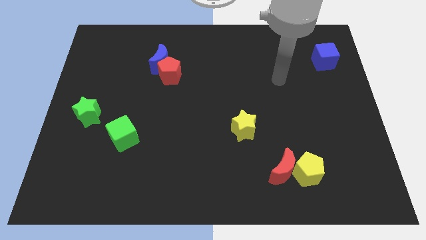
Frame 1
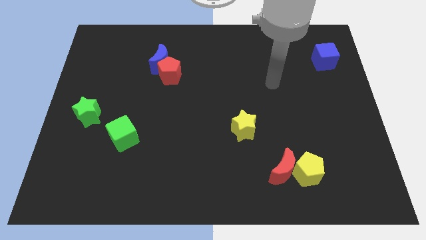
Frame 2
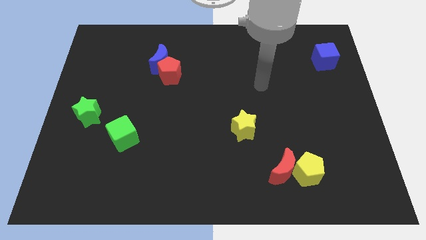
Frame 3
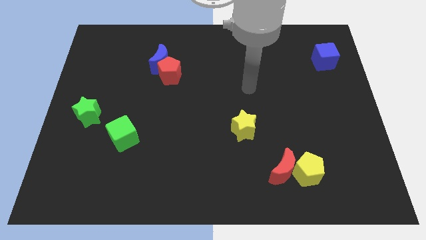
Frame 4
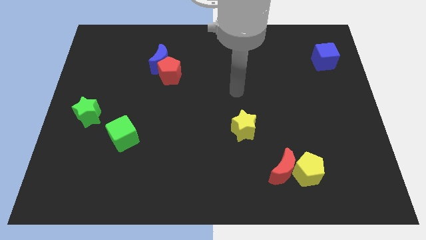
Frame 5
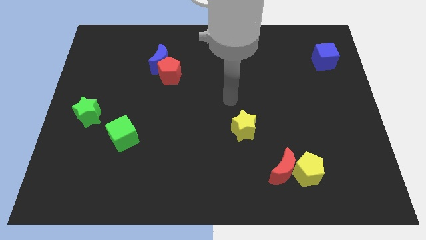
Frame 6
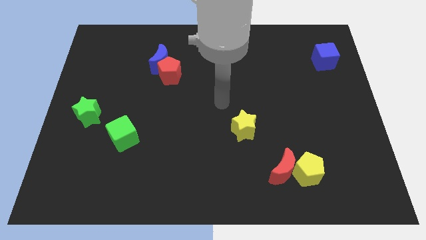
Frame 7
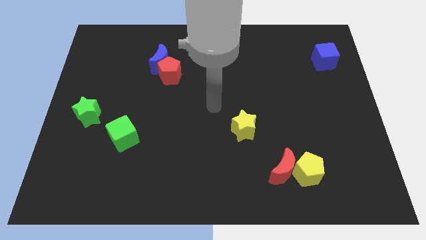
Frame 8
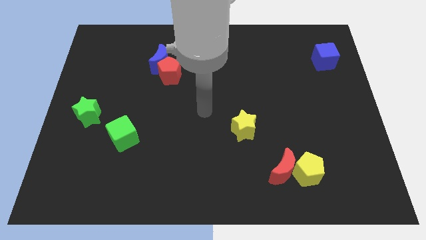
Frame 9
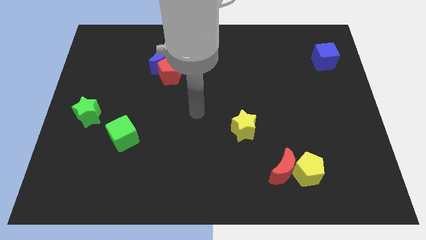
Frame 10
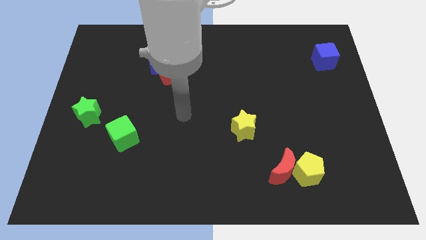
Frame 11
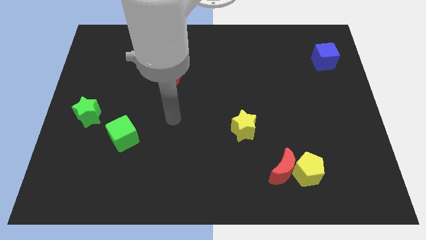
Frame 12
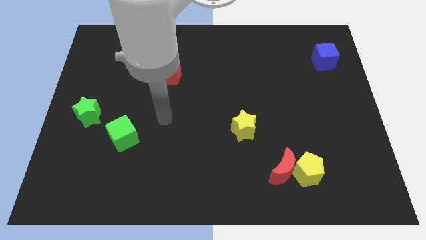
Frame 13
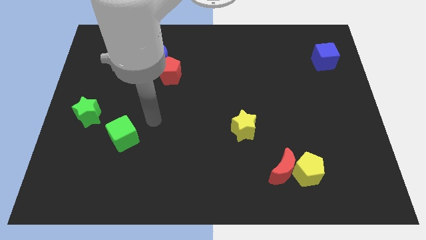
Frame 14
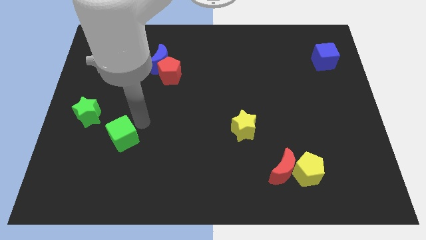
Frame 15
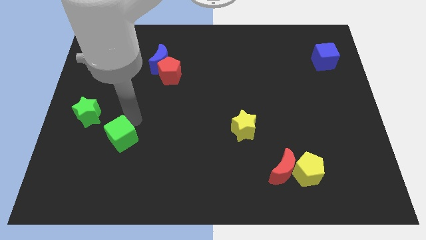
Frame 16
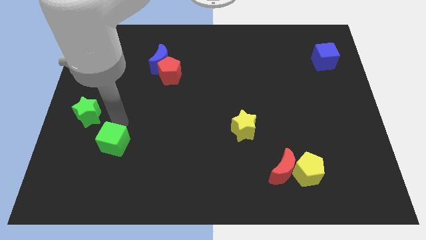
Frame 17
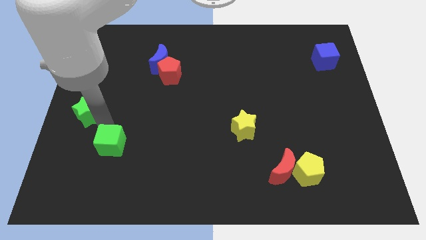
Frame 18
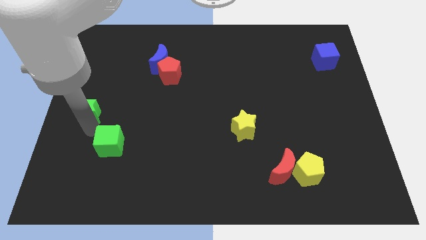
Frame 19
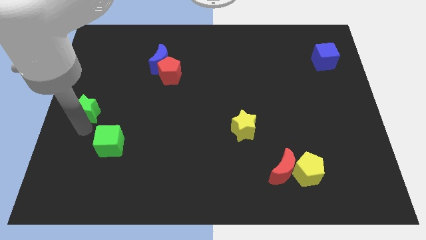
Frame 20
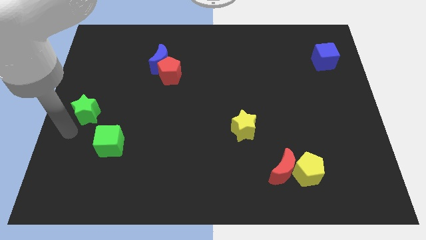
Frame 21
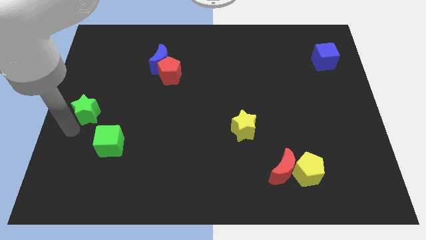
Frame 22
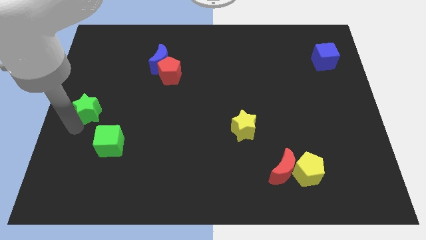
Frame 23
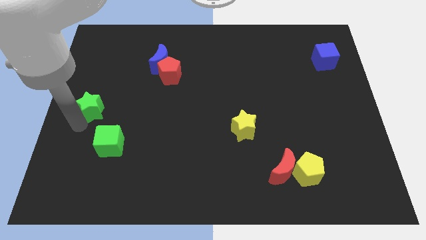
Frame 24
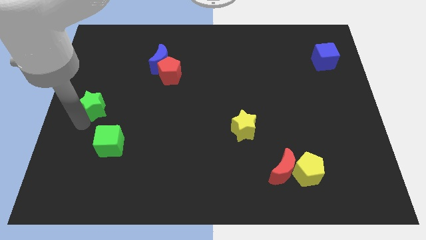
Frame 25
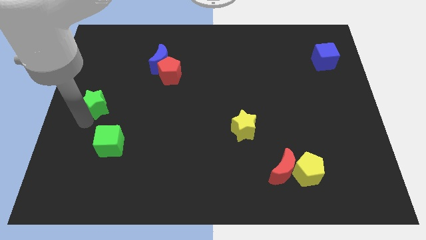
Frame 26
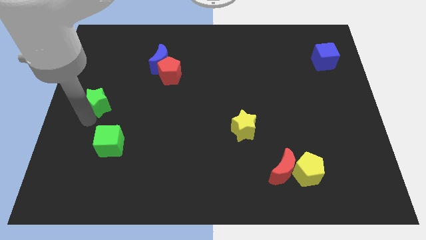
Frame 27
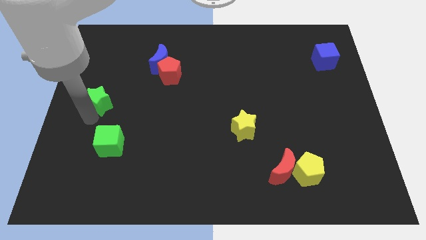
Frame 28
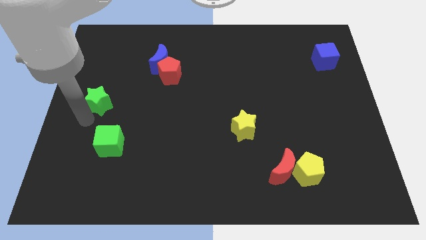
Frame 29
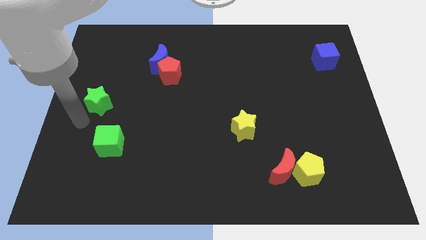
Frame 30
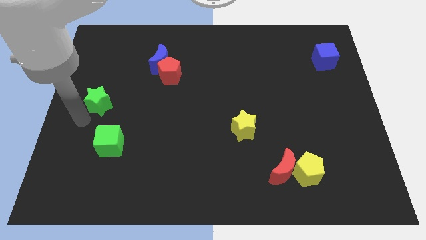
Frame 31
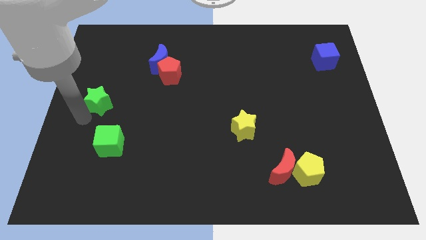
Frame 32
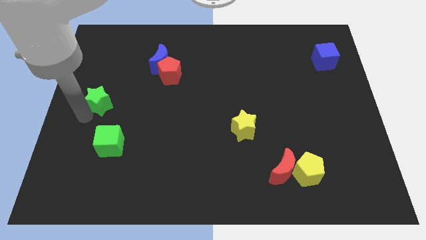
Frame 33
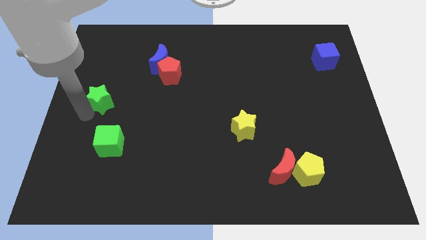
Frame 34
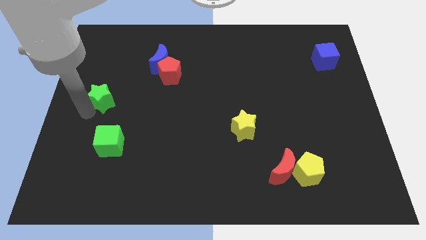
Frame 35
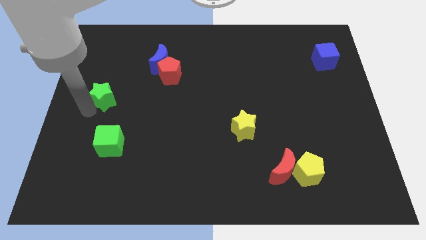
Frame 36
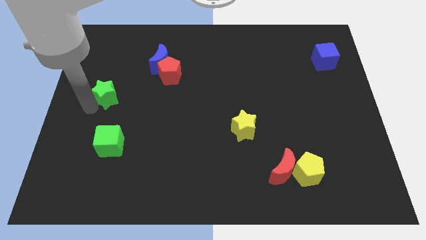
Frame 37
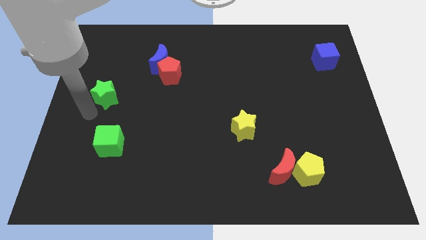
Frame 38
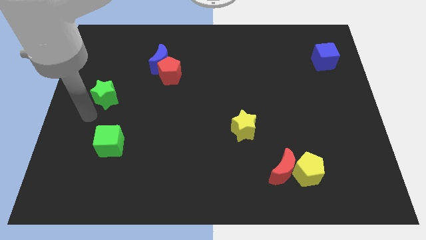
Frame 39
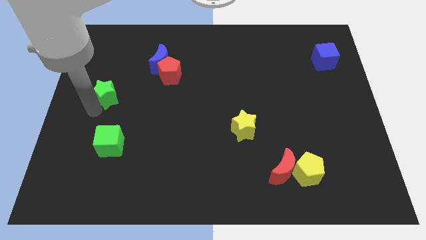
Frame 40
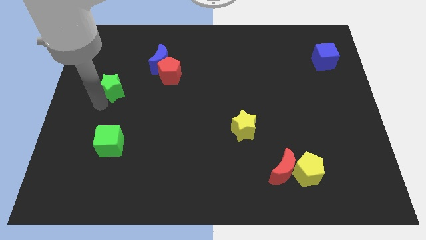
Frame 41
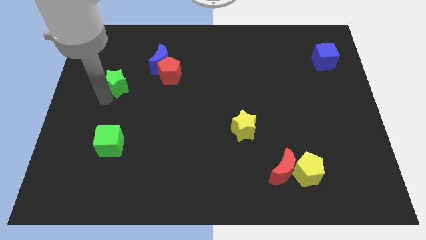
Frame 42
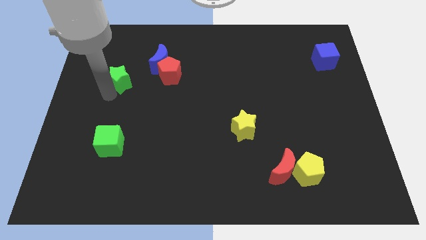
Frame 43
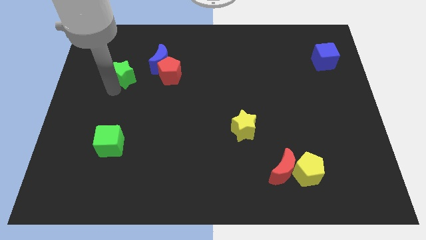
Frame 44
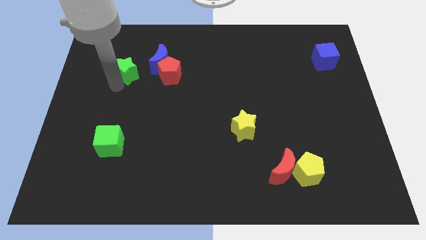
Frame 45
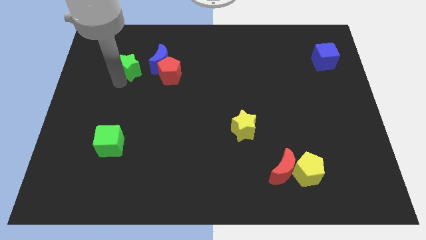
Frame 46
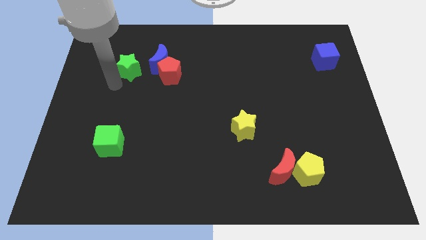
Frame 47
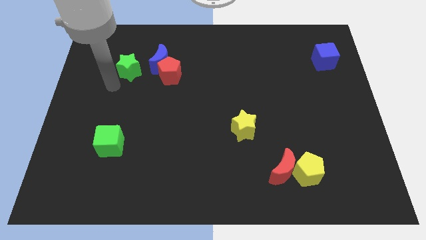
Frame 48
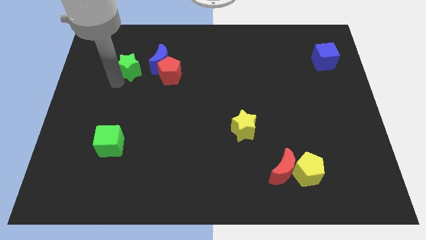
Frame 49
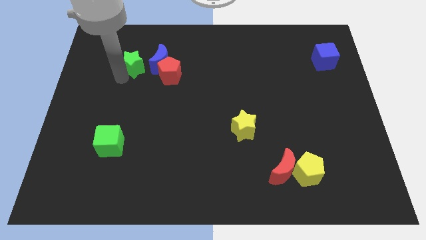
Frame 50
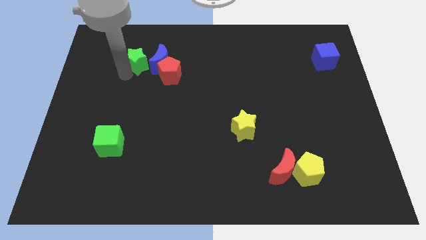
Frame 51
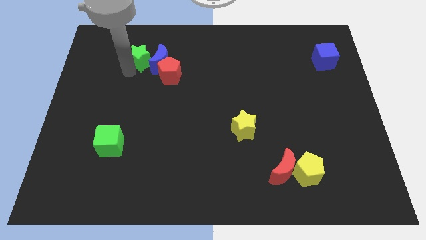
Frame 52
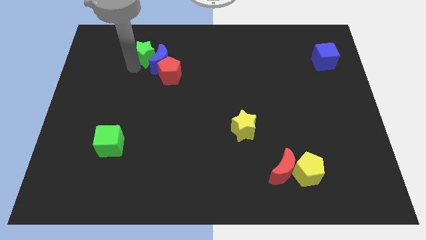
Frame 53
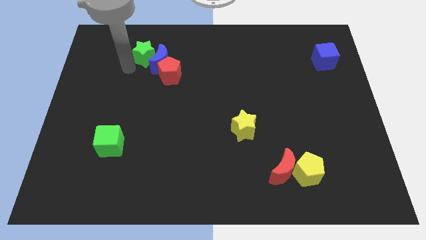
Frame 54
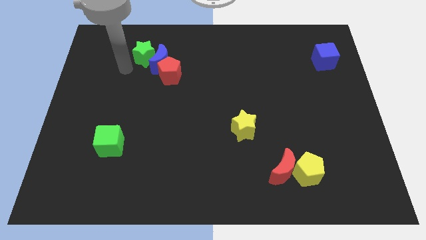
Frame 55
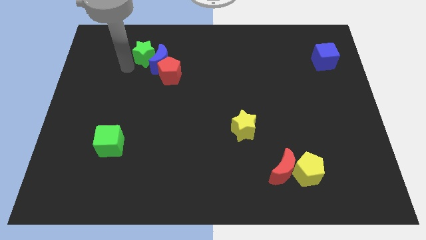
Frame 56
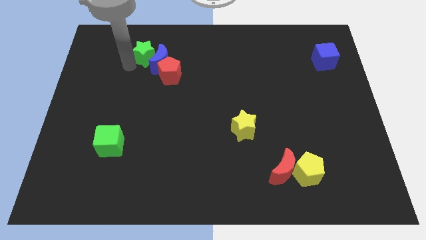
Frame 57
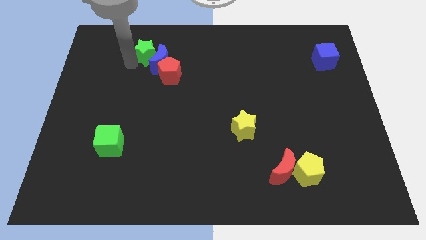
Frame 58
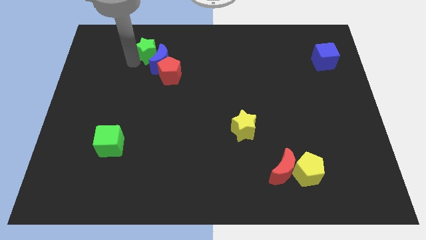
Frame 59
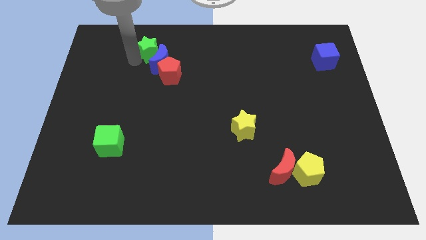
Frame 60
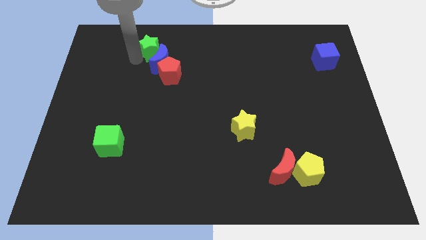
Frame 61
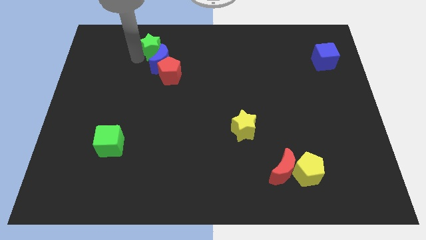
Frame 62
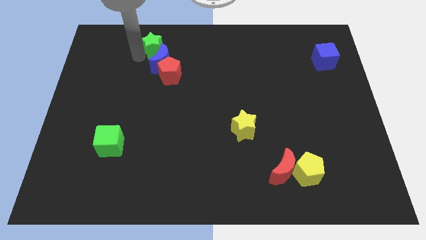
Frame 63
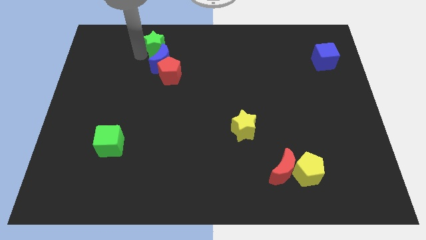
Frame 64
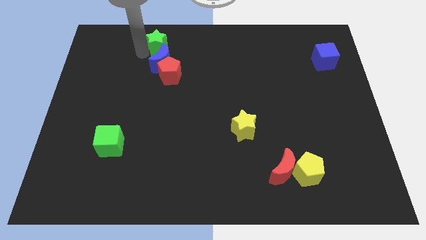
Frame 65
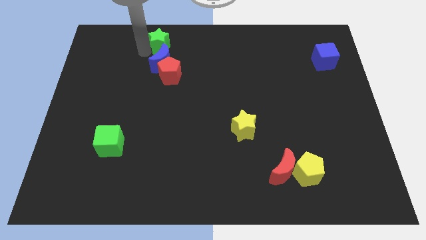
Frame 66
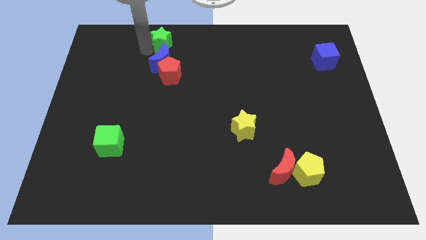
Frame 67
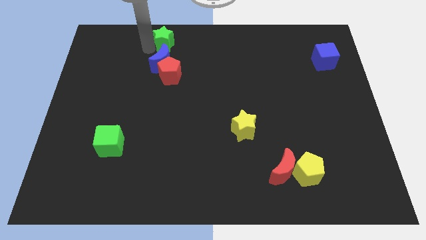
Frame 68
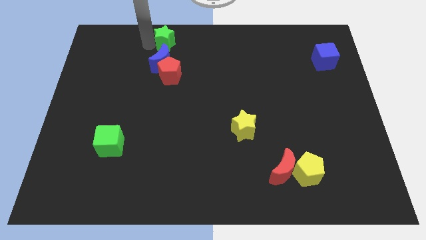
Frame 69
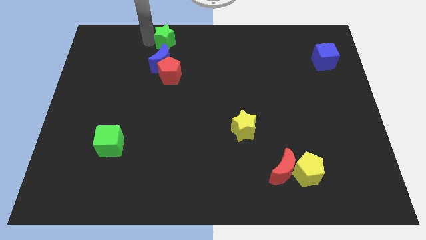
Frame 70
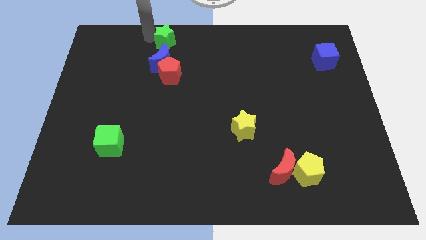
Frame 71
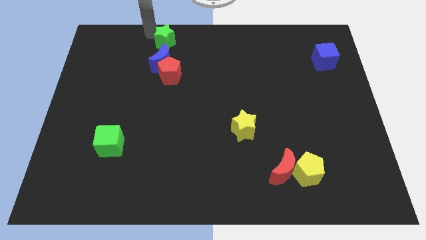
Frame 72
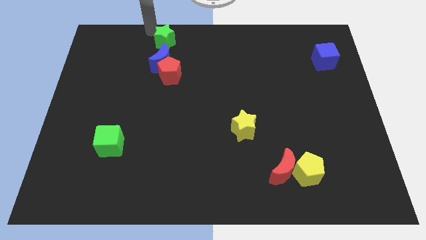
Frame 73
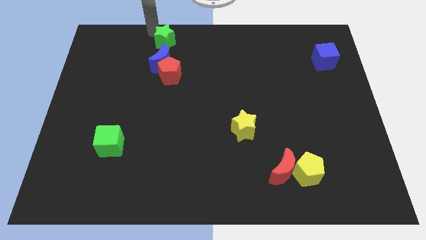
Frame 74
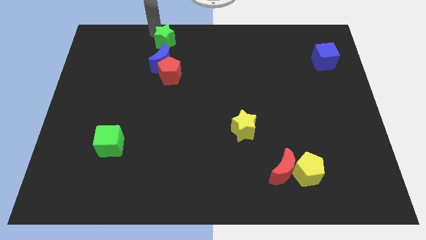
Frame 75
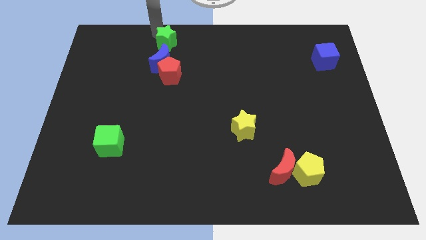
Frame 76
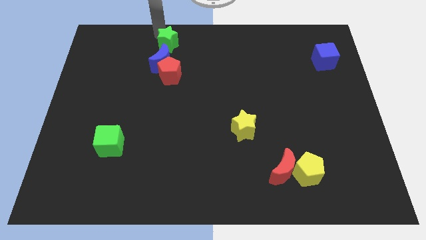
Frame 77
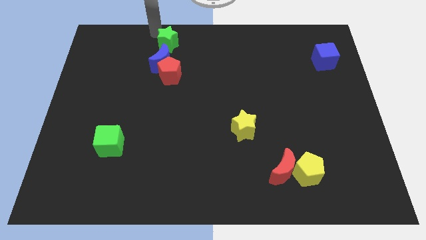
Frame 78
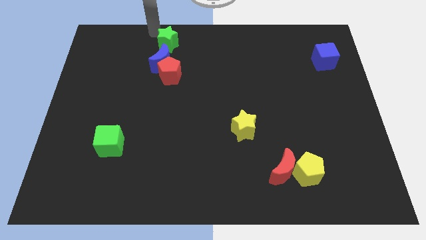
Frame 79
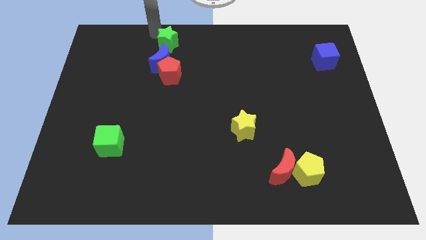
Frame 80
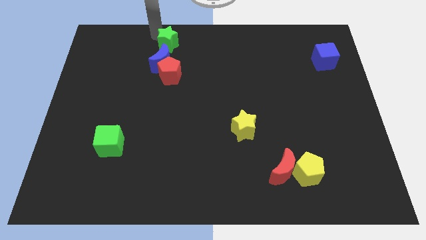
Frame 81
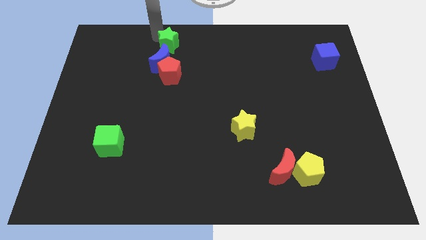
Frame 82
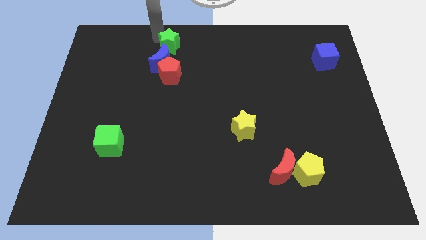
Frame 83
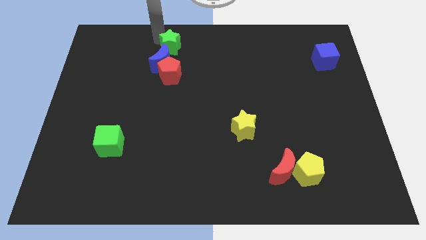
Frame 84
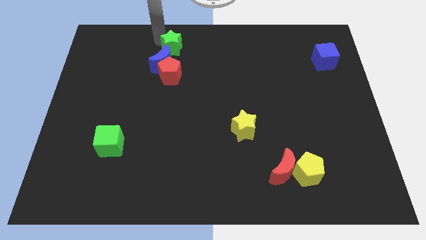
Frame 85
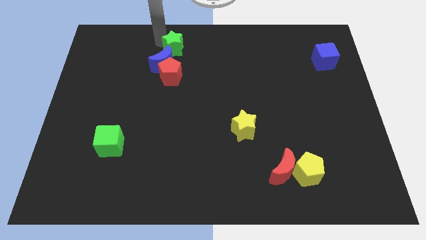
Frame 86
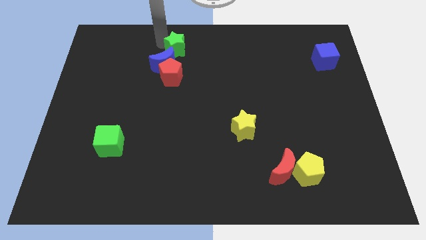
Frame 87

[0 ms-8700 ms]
slide the green star to the top side
